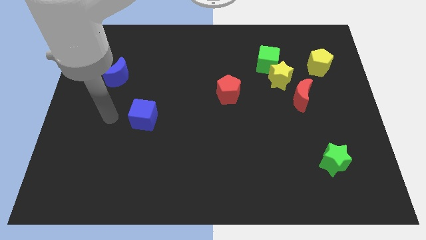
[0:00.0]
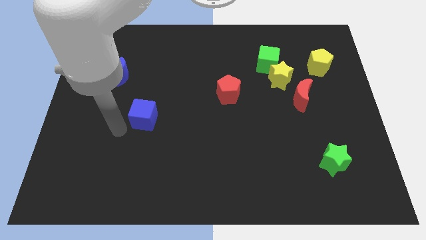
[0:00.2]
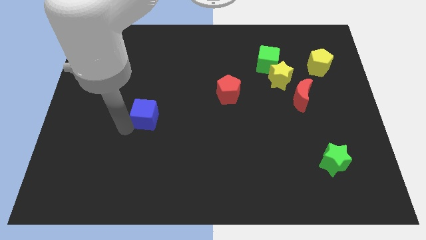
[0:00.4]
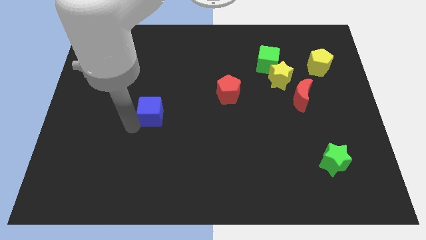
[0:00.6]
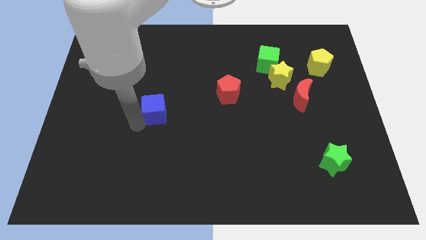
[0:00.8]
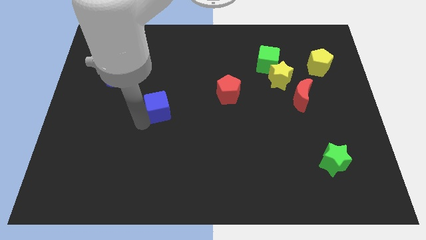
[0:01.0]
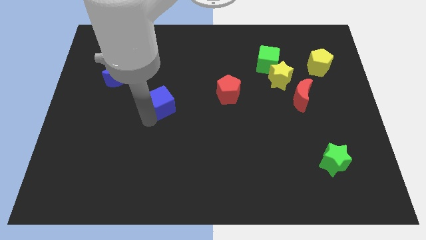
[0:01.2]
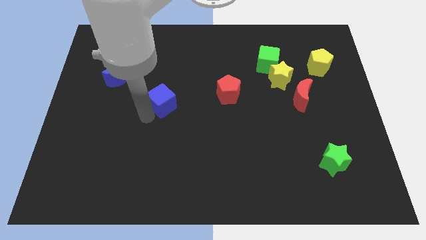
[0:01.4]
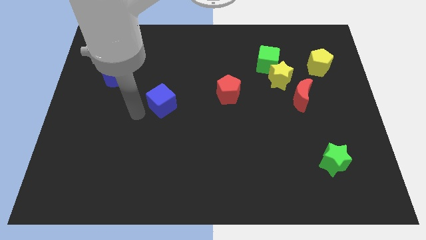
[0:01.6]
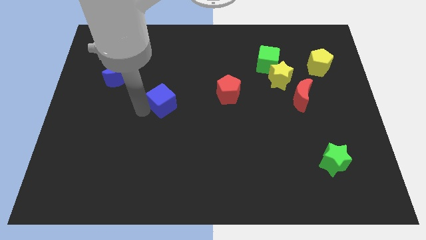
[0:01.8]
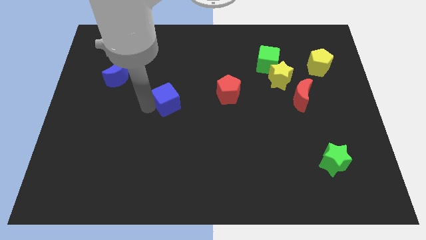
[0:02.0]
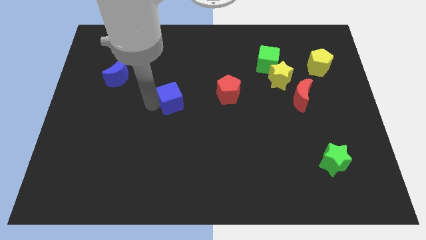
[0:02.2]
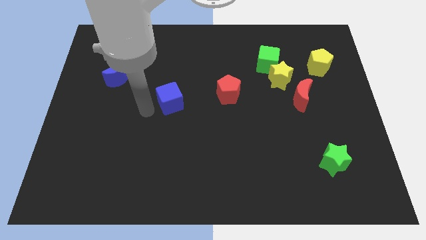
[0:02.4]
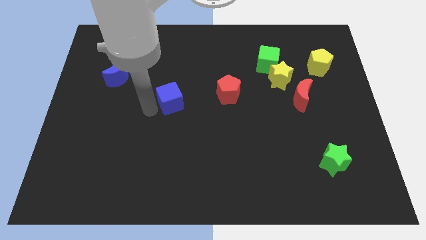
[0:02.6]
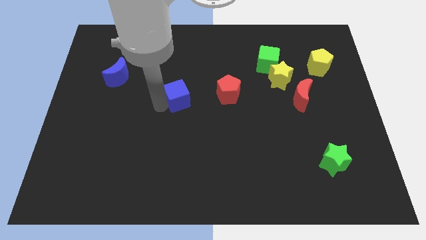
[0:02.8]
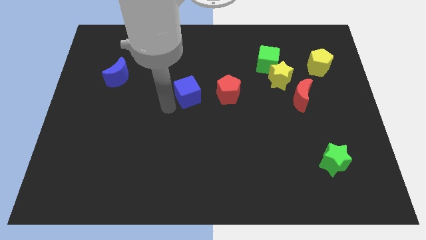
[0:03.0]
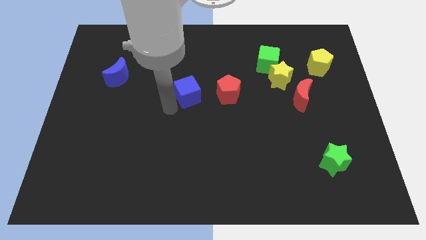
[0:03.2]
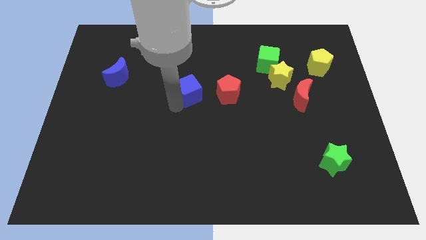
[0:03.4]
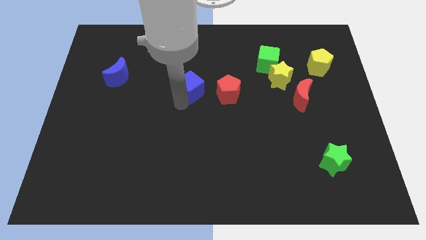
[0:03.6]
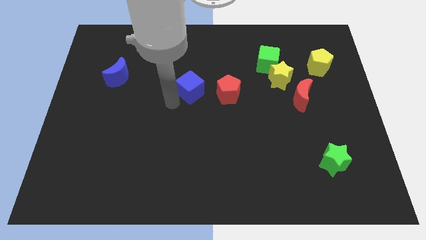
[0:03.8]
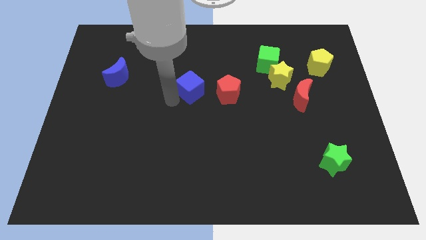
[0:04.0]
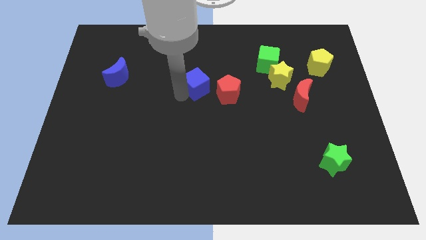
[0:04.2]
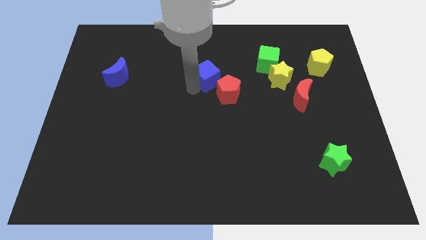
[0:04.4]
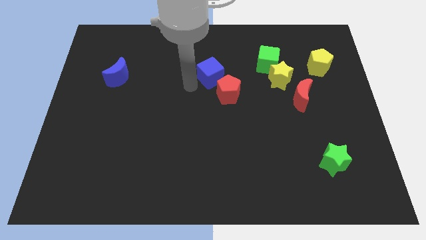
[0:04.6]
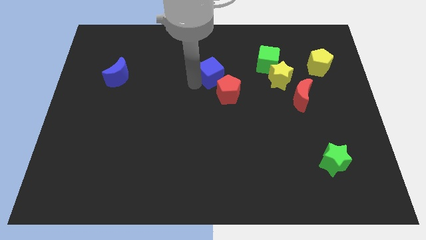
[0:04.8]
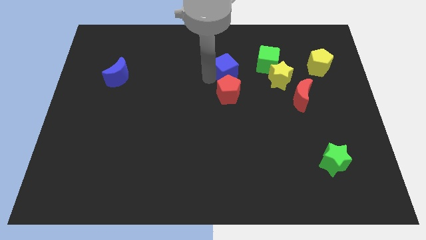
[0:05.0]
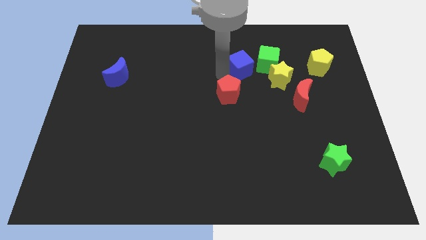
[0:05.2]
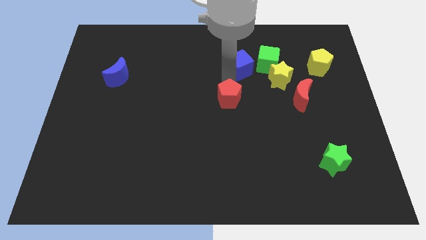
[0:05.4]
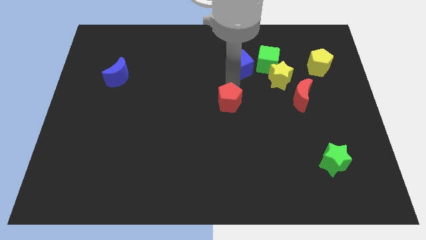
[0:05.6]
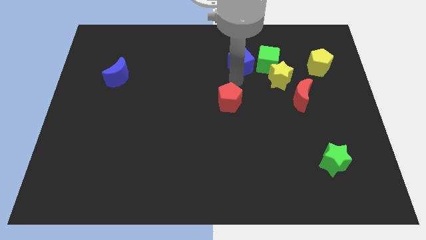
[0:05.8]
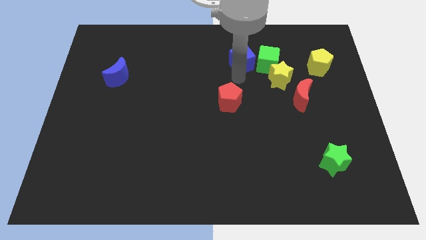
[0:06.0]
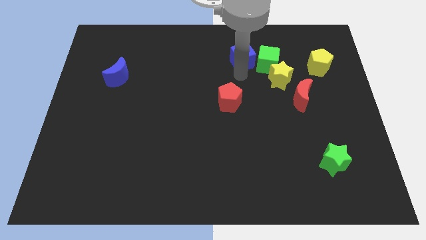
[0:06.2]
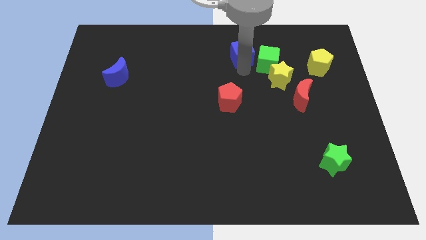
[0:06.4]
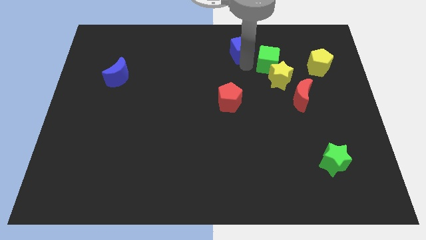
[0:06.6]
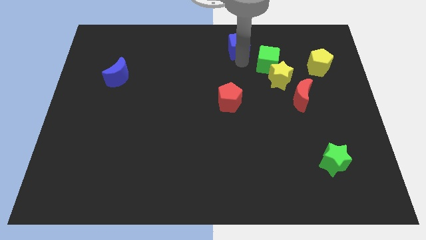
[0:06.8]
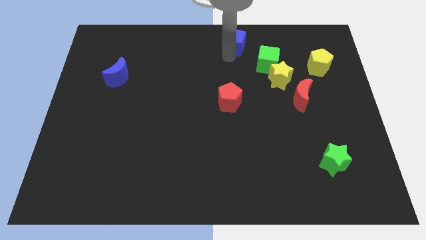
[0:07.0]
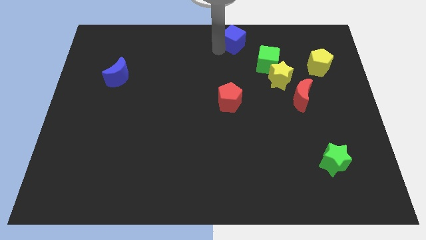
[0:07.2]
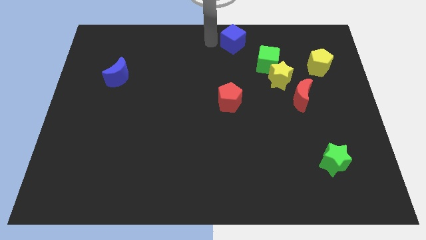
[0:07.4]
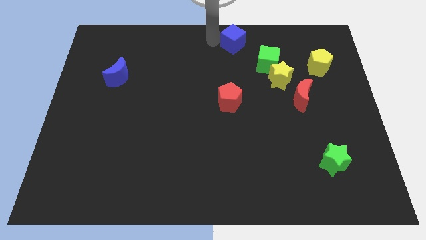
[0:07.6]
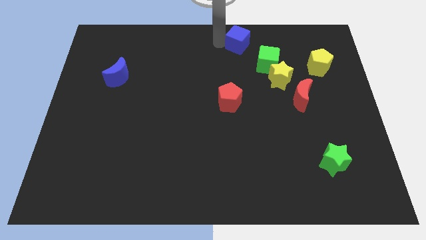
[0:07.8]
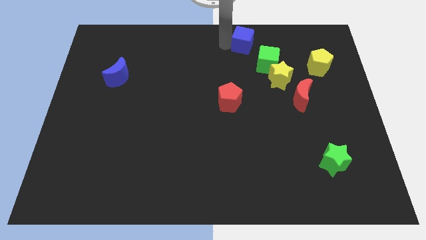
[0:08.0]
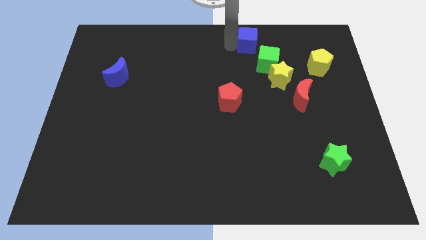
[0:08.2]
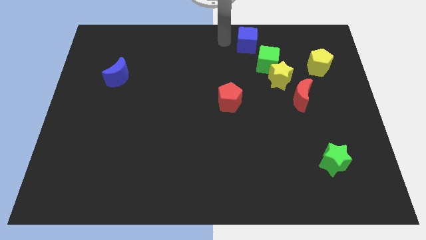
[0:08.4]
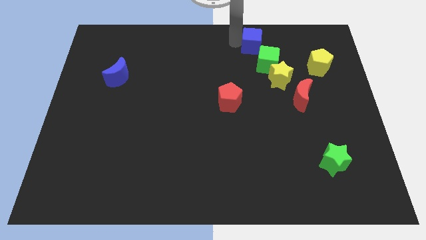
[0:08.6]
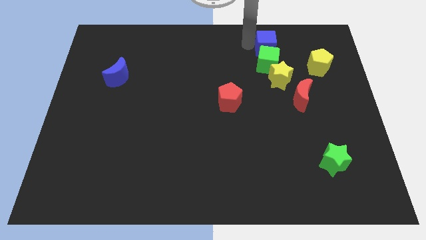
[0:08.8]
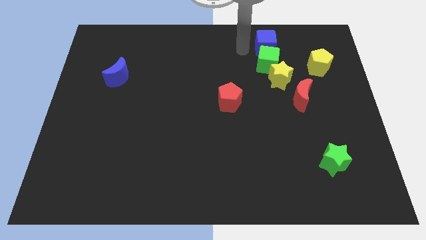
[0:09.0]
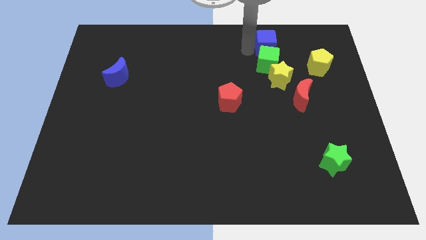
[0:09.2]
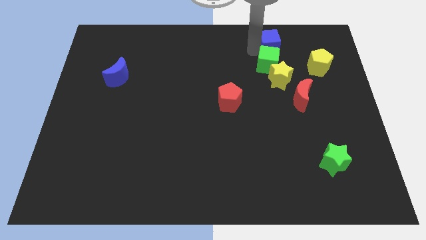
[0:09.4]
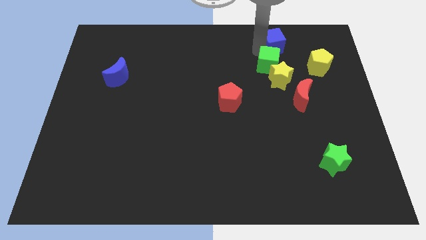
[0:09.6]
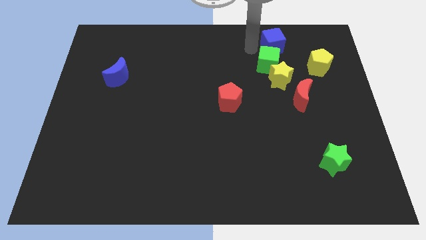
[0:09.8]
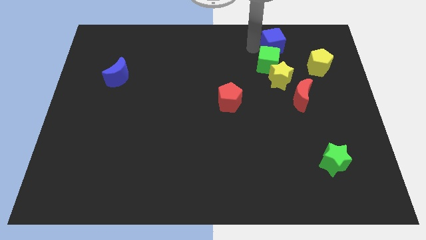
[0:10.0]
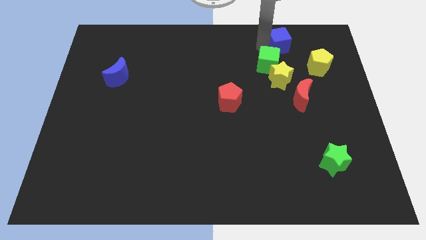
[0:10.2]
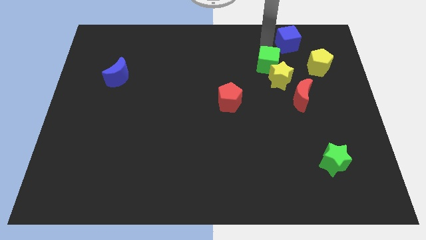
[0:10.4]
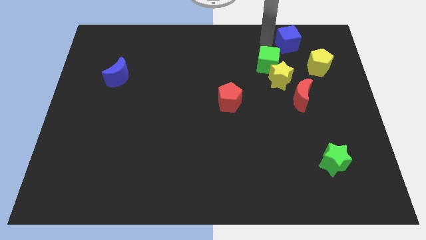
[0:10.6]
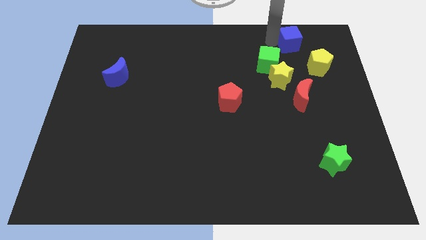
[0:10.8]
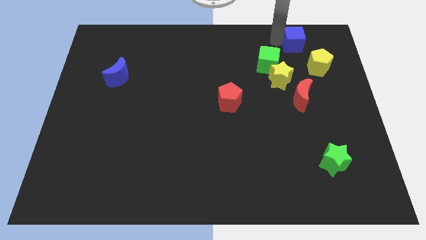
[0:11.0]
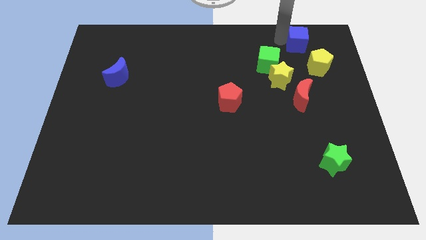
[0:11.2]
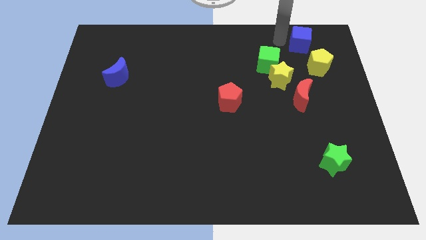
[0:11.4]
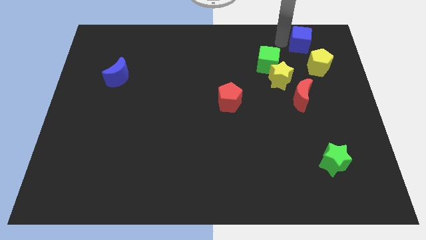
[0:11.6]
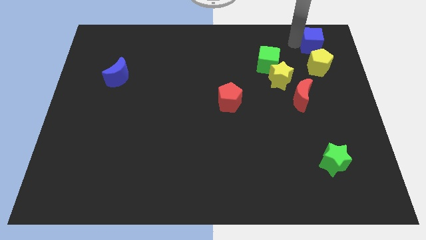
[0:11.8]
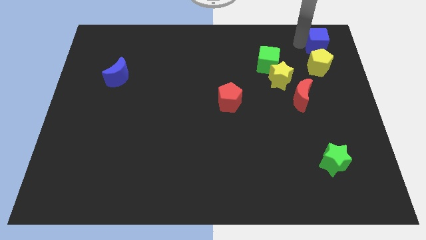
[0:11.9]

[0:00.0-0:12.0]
slide the blue cube to the top right corner

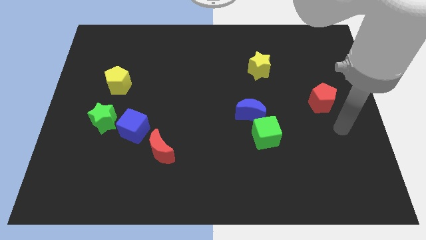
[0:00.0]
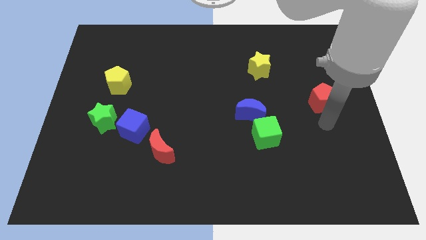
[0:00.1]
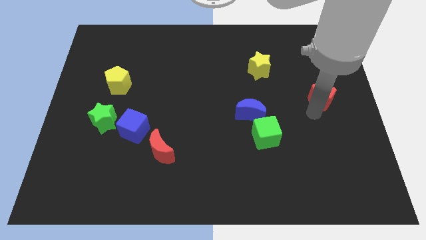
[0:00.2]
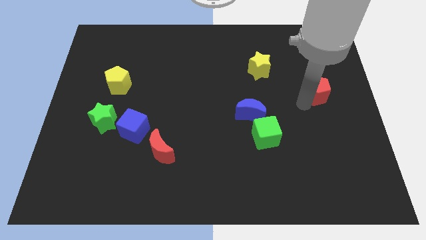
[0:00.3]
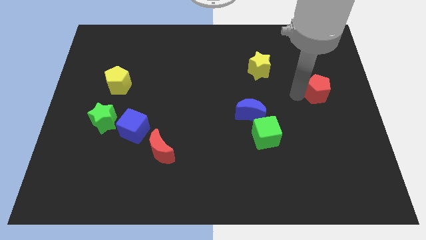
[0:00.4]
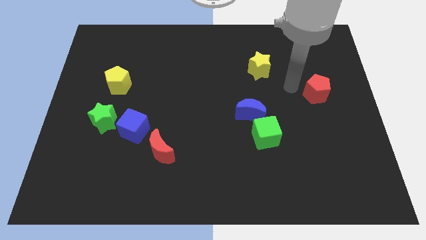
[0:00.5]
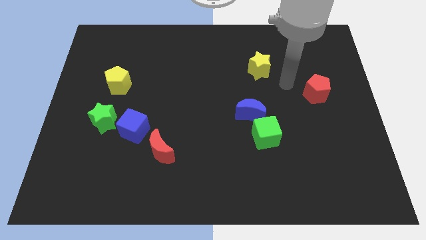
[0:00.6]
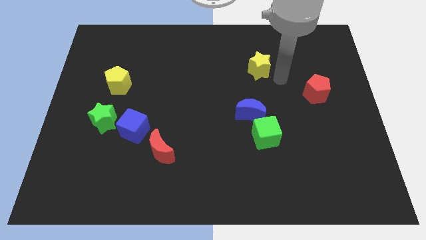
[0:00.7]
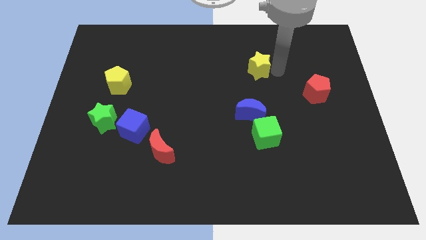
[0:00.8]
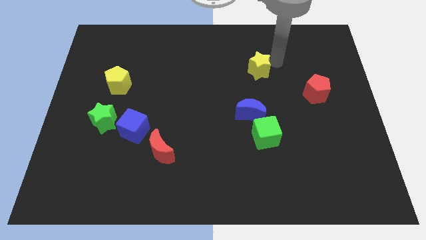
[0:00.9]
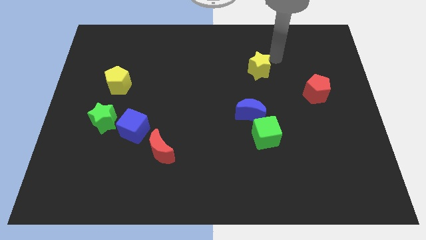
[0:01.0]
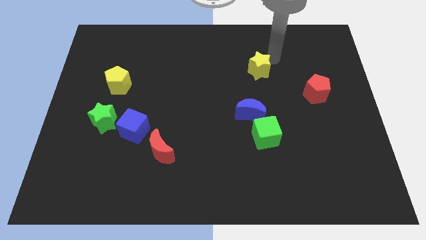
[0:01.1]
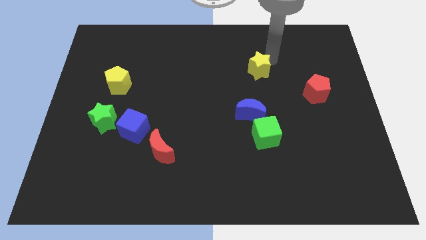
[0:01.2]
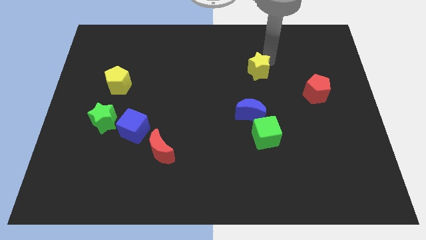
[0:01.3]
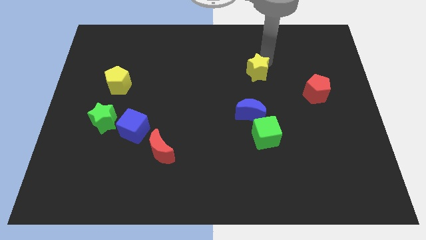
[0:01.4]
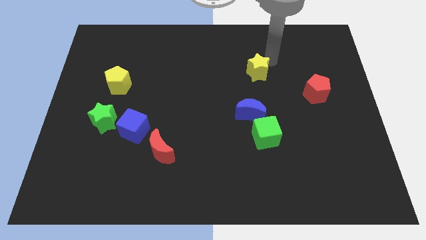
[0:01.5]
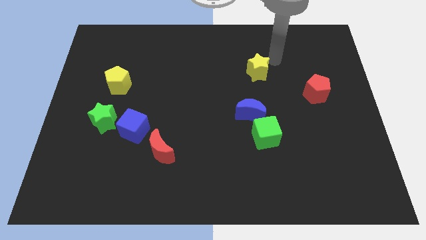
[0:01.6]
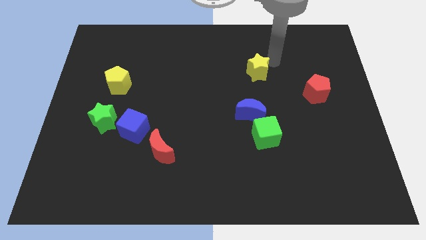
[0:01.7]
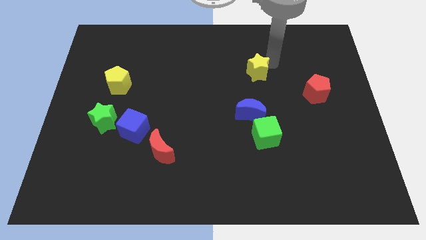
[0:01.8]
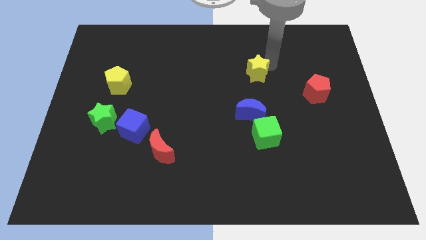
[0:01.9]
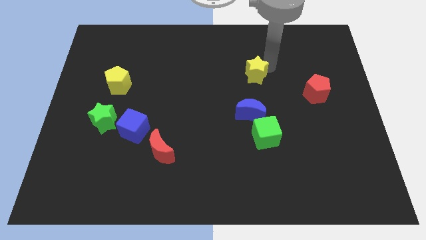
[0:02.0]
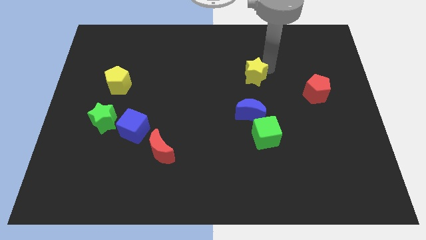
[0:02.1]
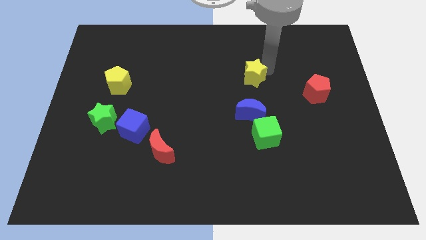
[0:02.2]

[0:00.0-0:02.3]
move the yellow star to the center
